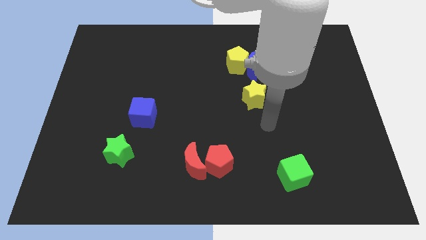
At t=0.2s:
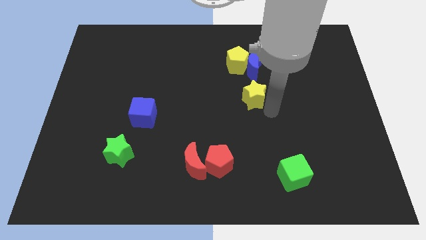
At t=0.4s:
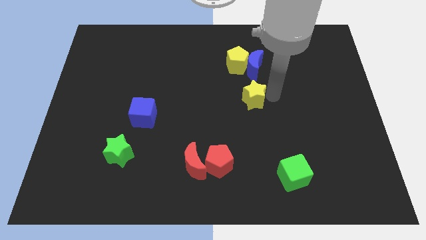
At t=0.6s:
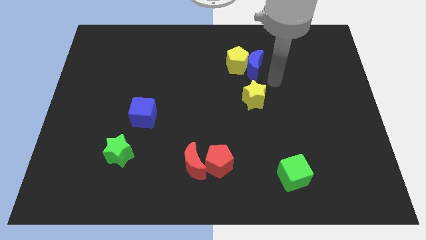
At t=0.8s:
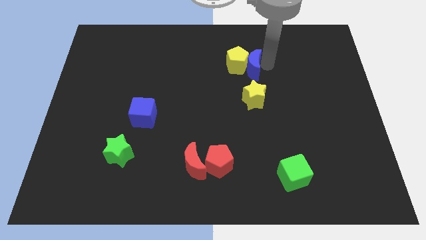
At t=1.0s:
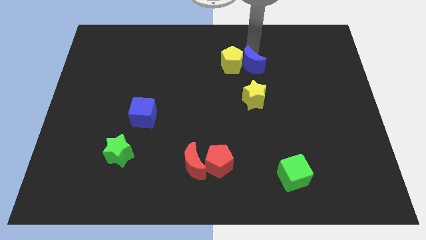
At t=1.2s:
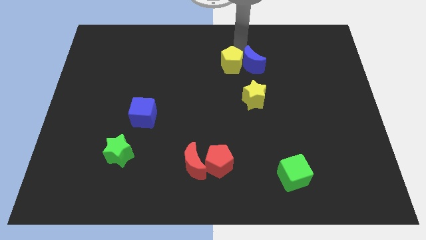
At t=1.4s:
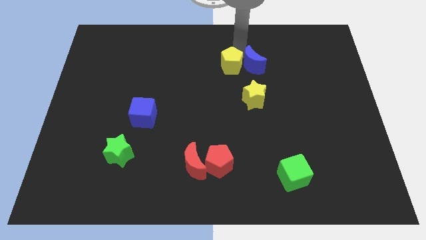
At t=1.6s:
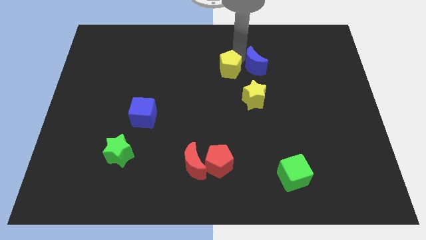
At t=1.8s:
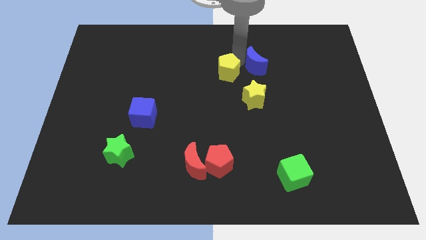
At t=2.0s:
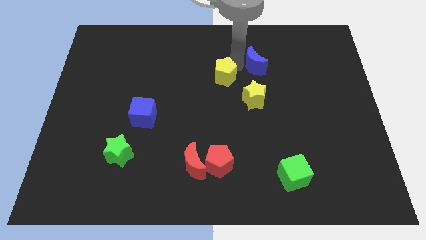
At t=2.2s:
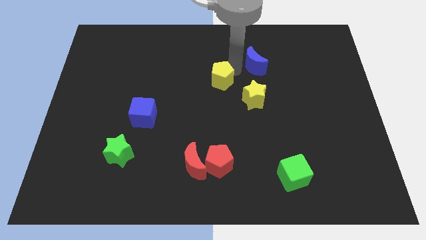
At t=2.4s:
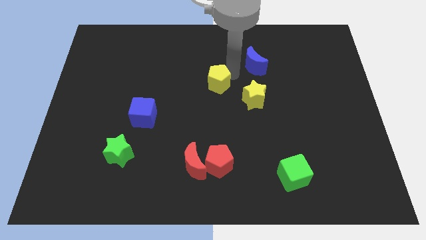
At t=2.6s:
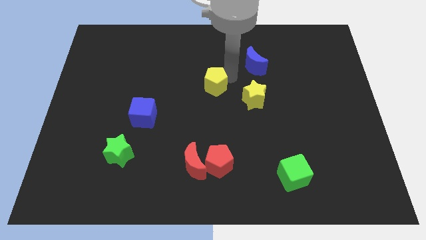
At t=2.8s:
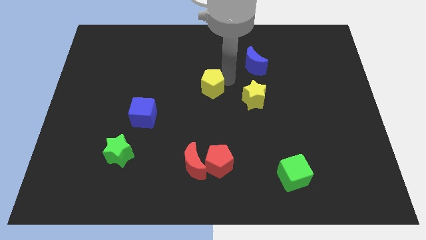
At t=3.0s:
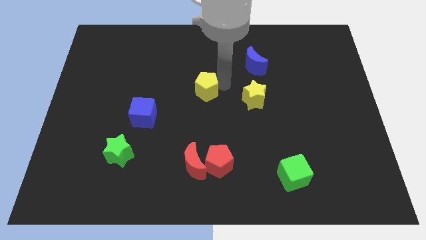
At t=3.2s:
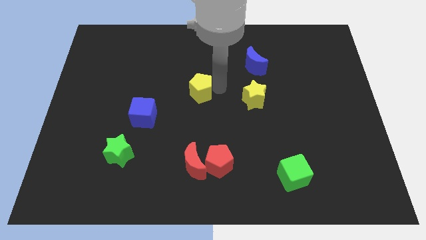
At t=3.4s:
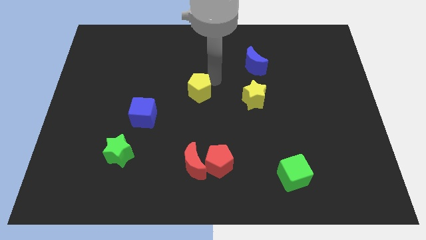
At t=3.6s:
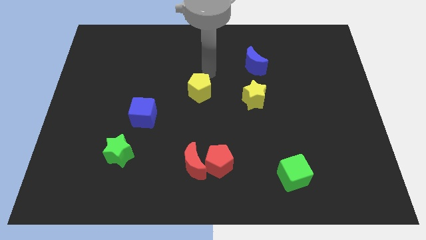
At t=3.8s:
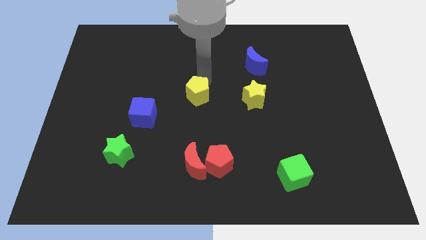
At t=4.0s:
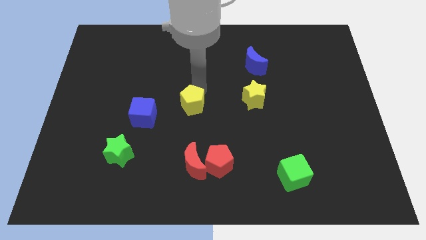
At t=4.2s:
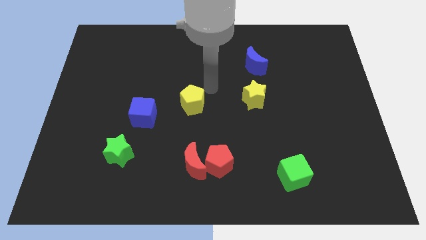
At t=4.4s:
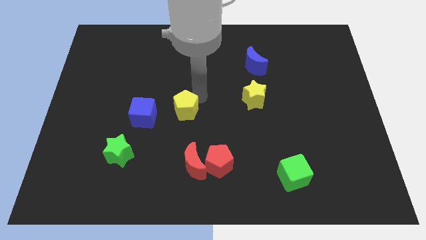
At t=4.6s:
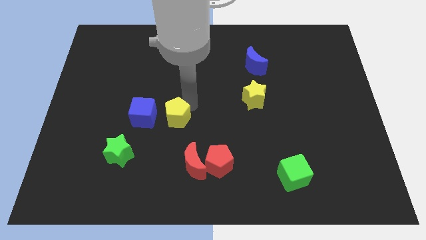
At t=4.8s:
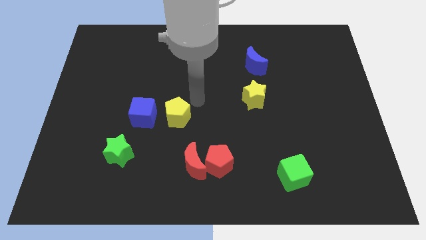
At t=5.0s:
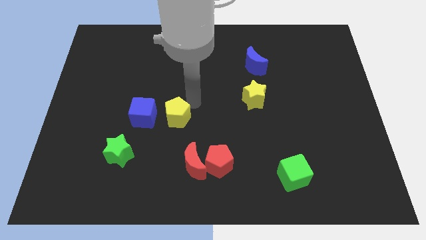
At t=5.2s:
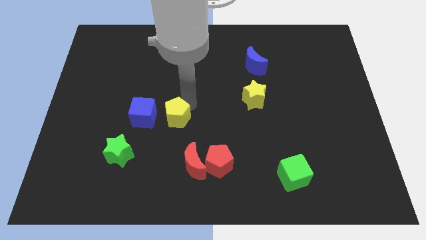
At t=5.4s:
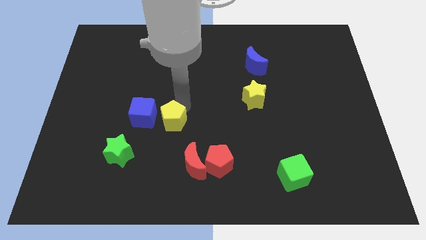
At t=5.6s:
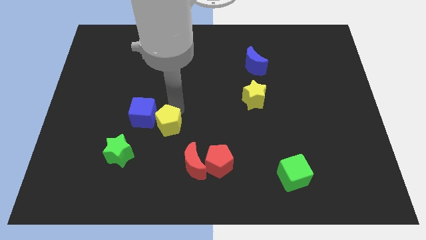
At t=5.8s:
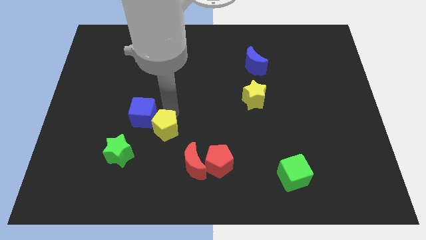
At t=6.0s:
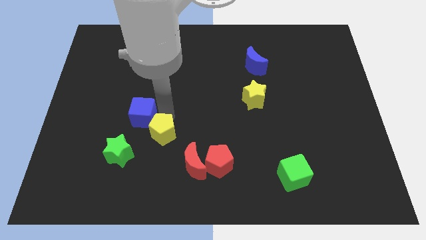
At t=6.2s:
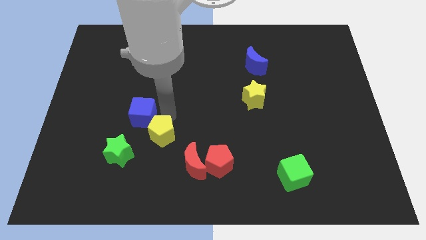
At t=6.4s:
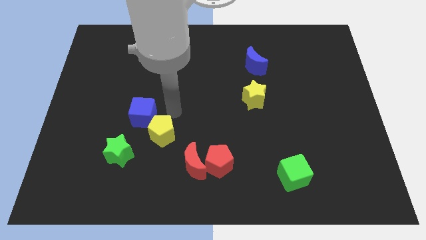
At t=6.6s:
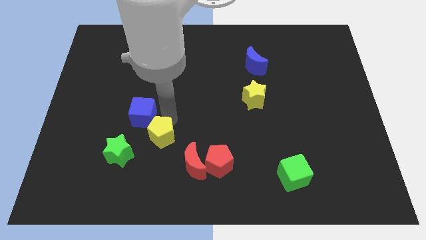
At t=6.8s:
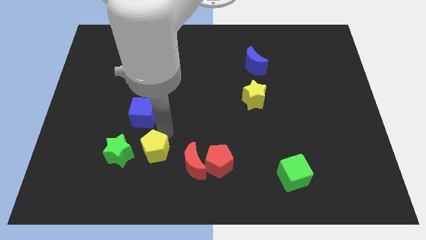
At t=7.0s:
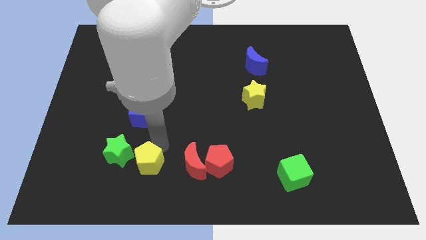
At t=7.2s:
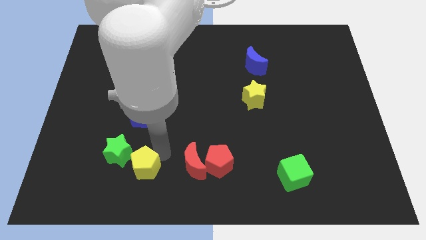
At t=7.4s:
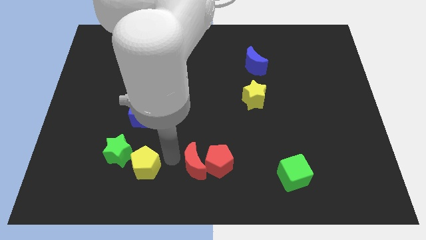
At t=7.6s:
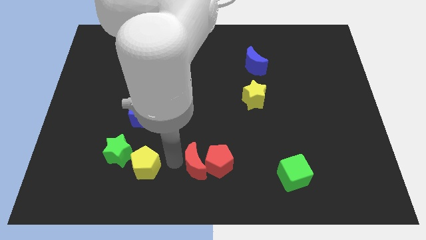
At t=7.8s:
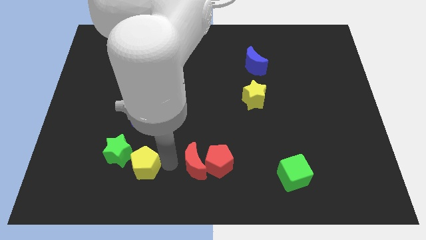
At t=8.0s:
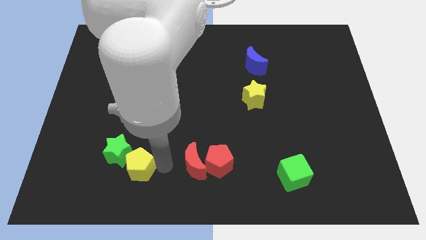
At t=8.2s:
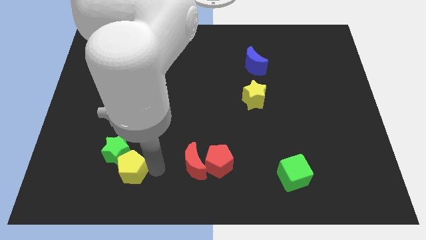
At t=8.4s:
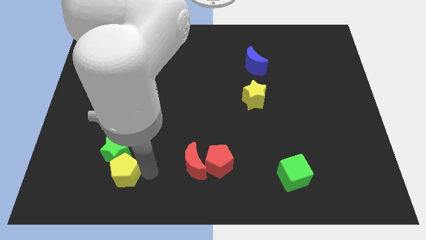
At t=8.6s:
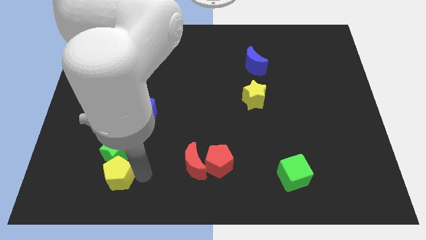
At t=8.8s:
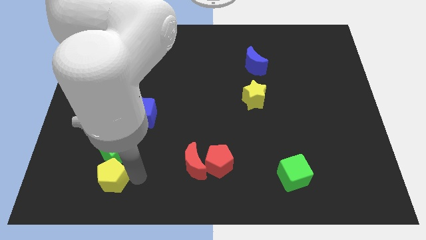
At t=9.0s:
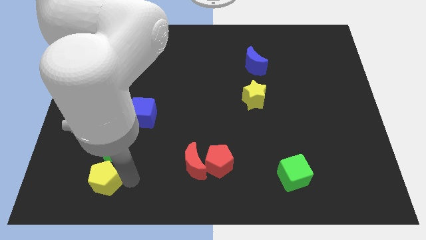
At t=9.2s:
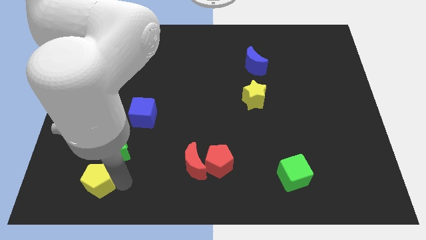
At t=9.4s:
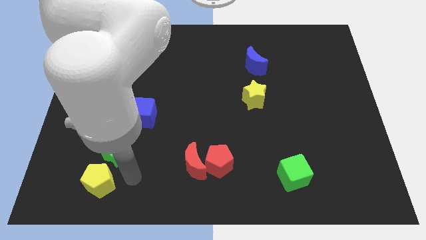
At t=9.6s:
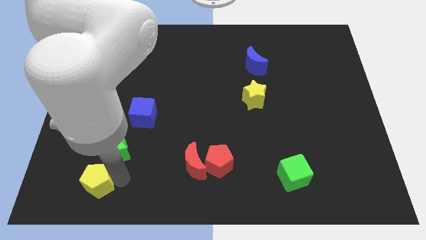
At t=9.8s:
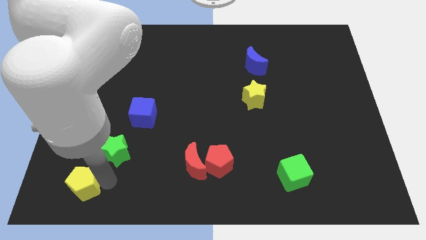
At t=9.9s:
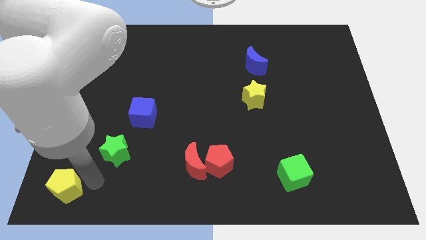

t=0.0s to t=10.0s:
move the yellow pentagon to the lower left corner
